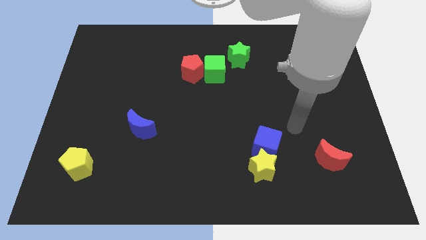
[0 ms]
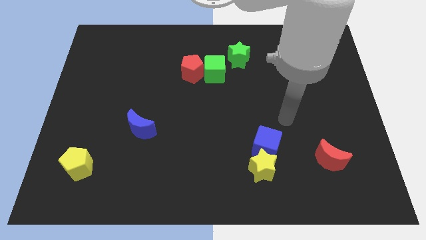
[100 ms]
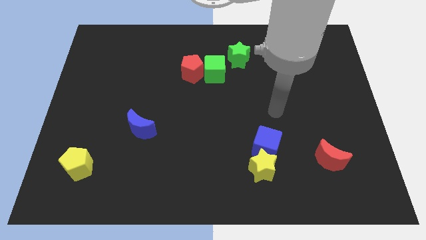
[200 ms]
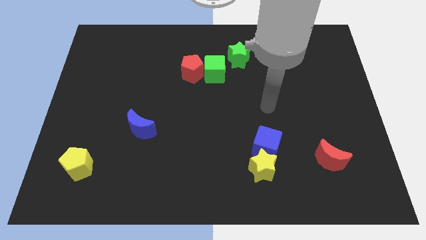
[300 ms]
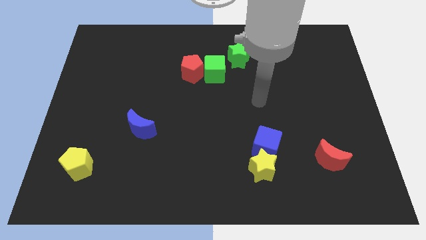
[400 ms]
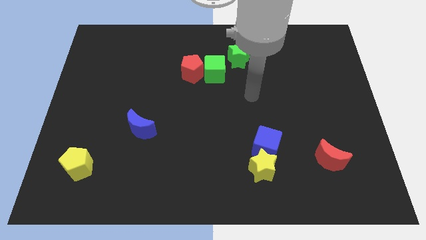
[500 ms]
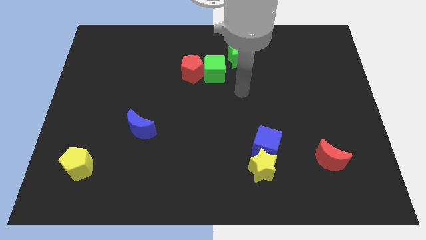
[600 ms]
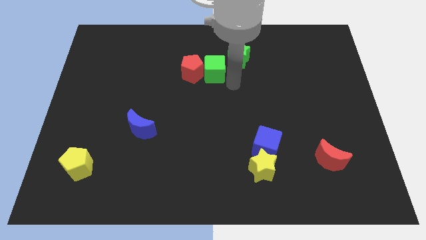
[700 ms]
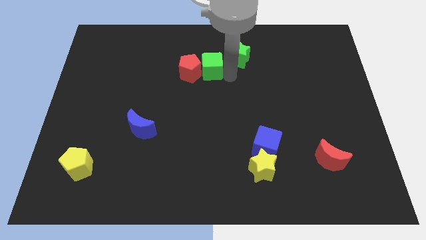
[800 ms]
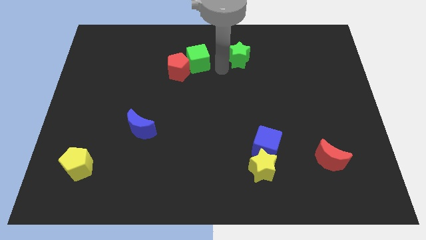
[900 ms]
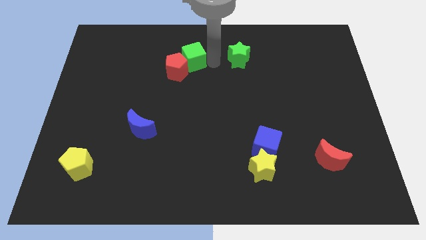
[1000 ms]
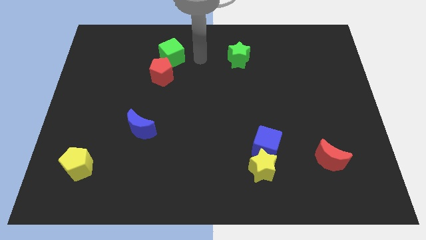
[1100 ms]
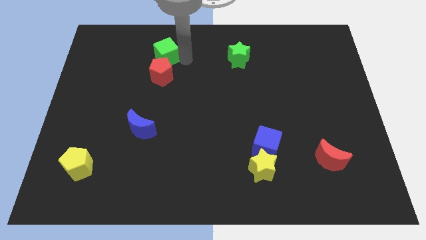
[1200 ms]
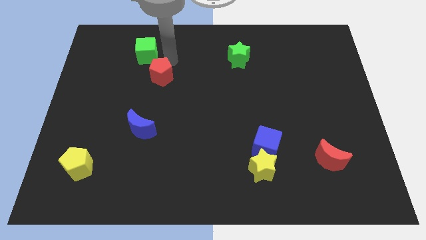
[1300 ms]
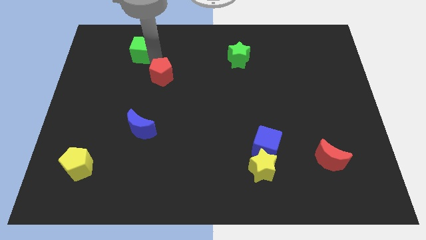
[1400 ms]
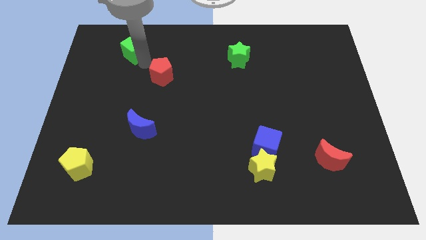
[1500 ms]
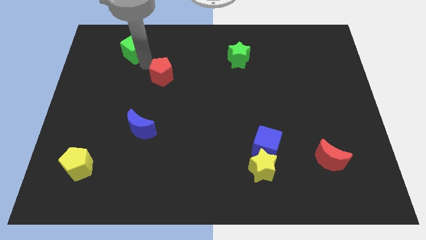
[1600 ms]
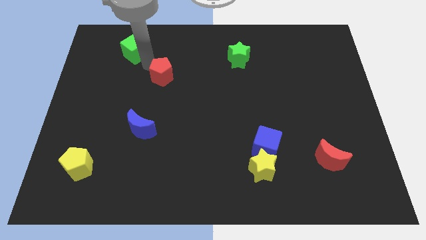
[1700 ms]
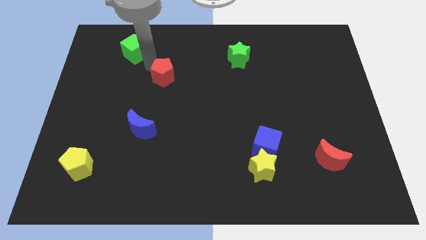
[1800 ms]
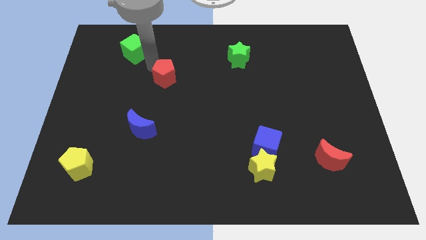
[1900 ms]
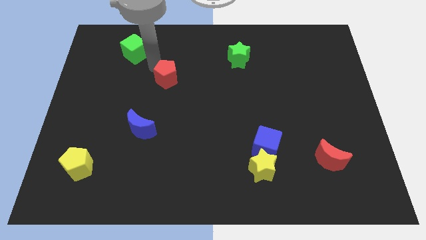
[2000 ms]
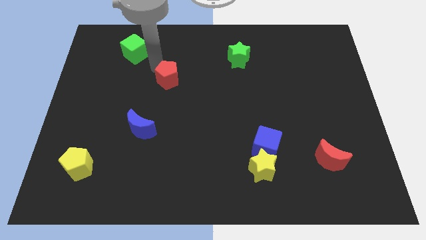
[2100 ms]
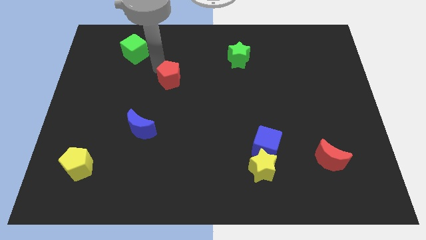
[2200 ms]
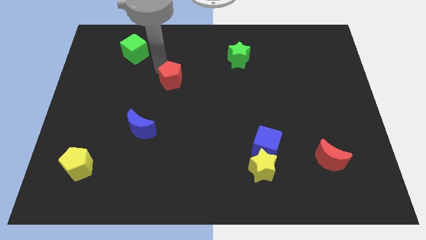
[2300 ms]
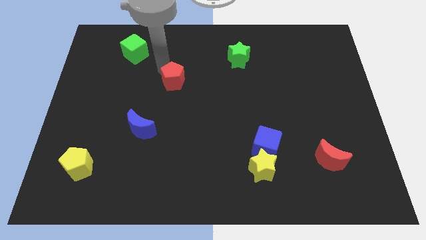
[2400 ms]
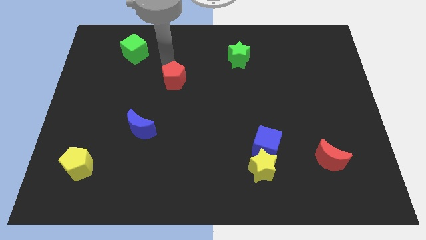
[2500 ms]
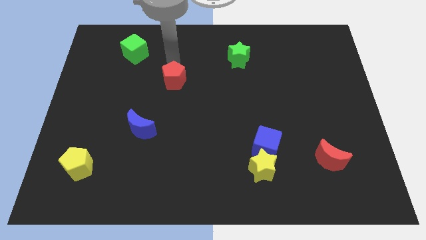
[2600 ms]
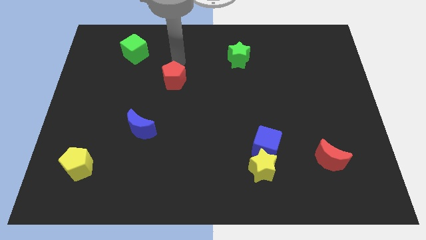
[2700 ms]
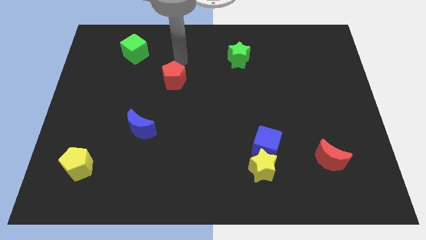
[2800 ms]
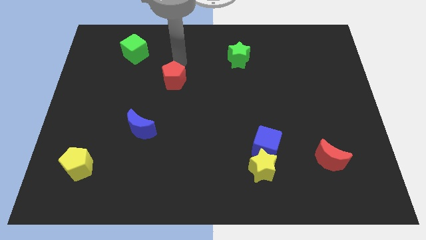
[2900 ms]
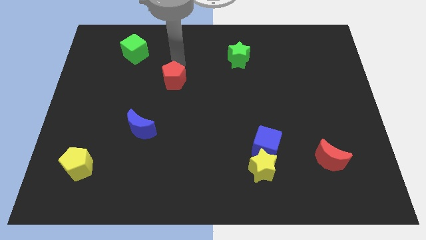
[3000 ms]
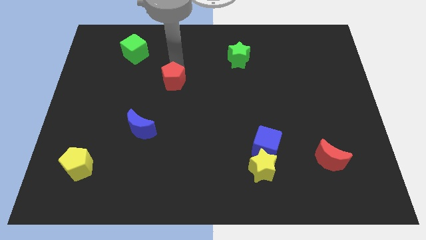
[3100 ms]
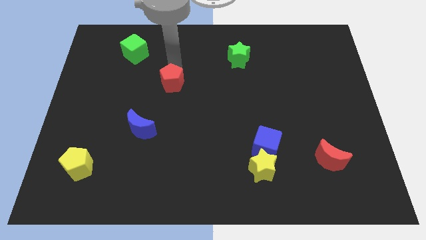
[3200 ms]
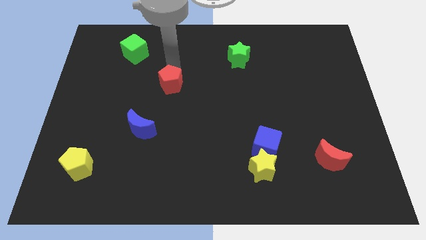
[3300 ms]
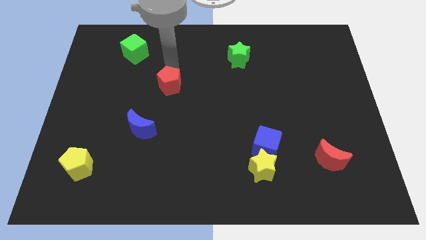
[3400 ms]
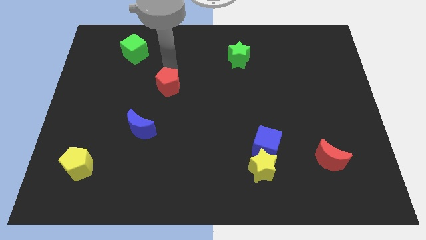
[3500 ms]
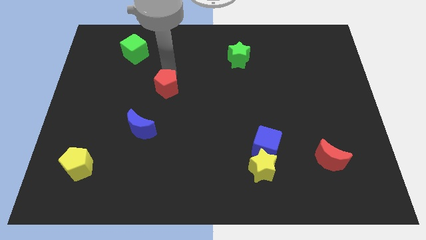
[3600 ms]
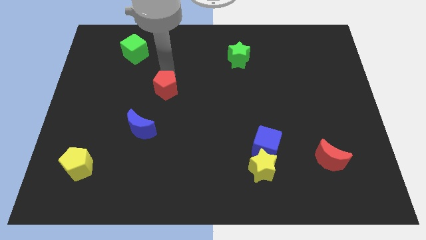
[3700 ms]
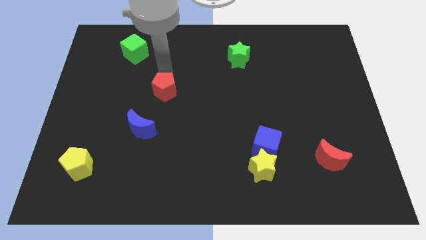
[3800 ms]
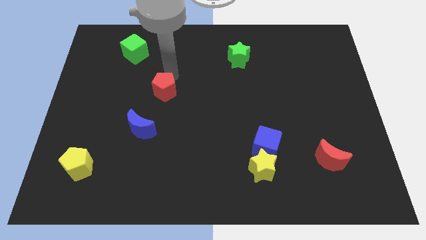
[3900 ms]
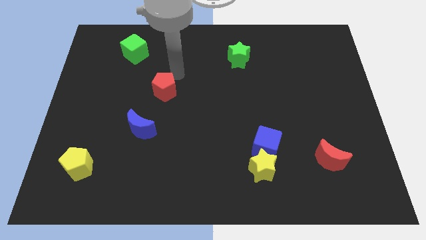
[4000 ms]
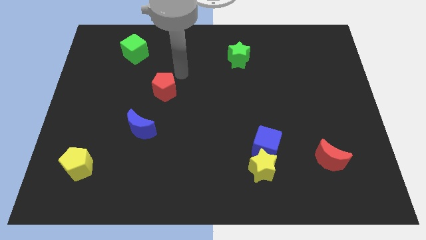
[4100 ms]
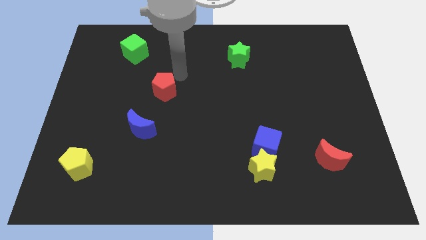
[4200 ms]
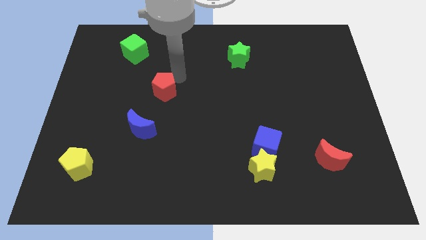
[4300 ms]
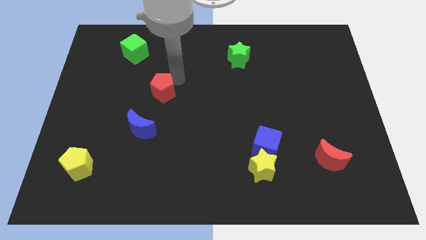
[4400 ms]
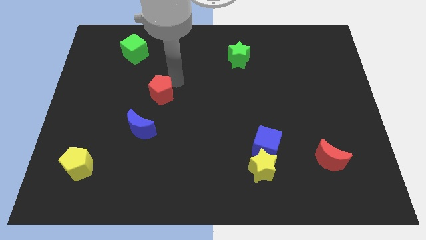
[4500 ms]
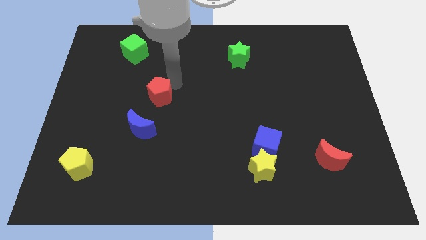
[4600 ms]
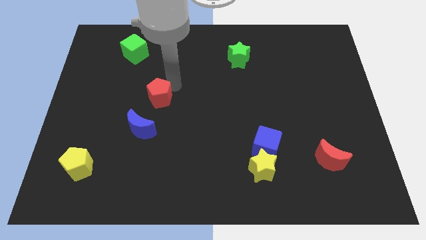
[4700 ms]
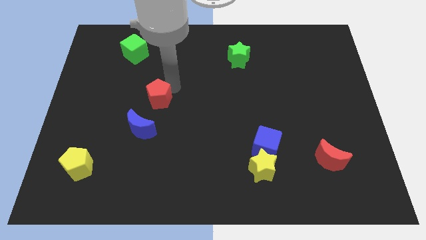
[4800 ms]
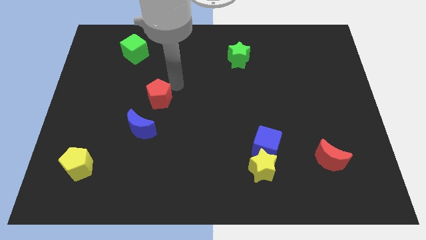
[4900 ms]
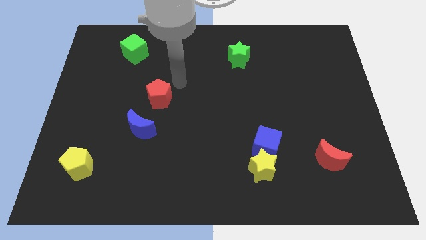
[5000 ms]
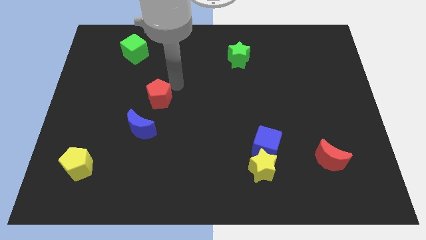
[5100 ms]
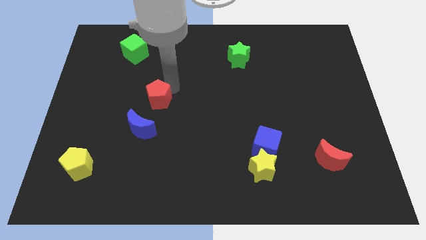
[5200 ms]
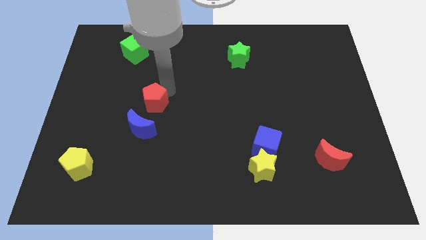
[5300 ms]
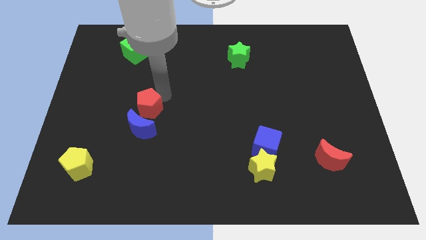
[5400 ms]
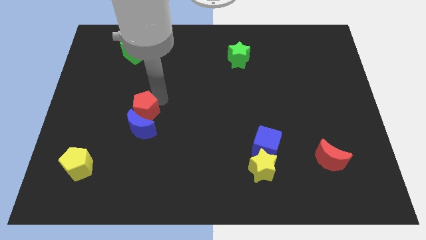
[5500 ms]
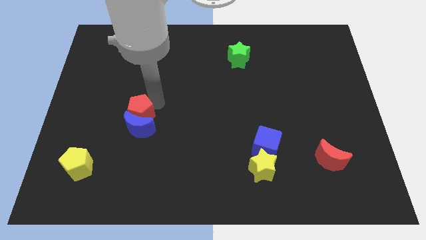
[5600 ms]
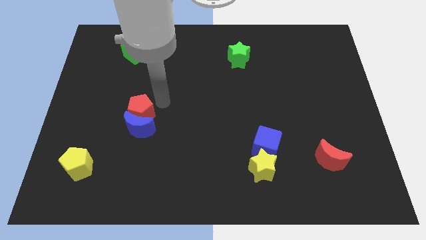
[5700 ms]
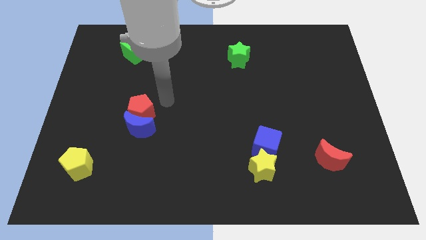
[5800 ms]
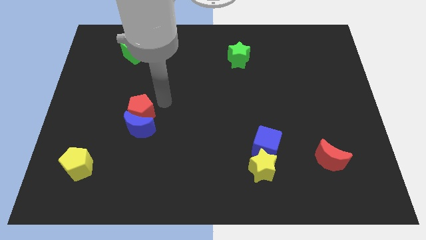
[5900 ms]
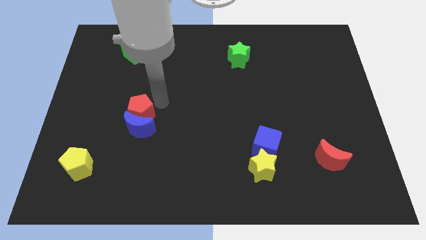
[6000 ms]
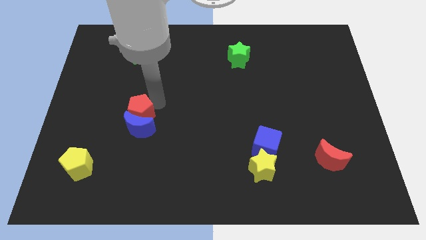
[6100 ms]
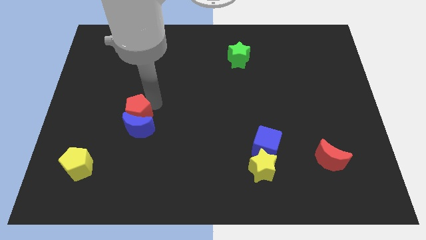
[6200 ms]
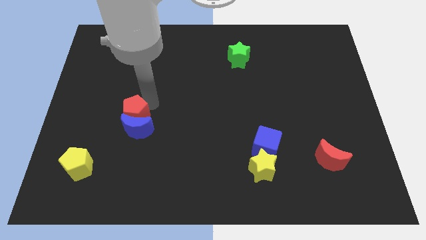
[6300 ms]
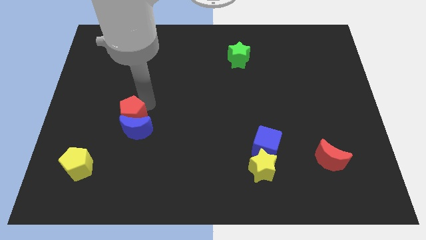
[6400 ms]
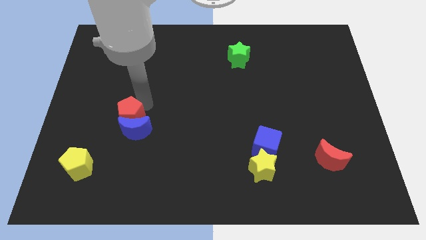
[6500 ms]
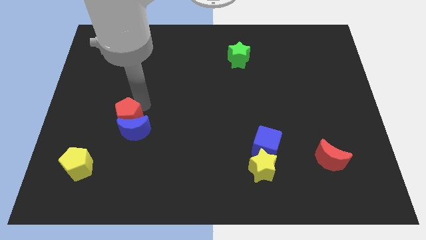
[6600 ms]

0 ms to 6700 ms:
slide the red pentagon diagonally down and left

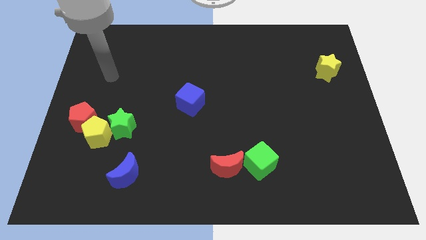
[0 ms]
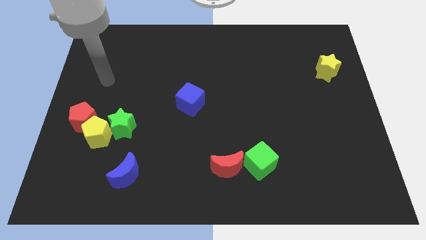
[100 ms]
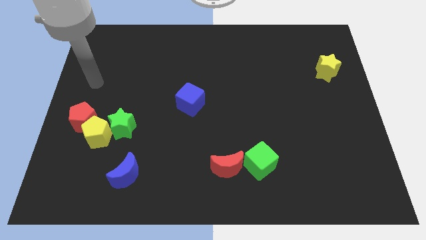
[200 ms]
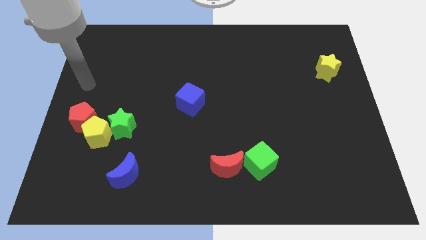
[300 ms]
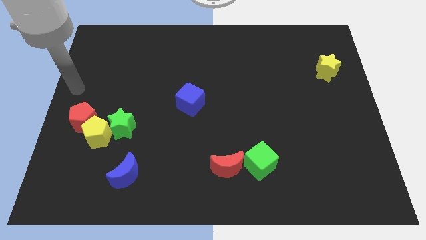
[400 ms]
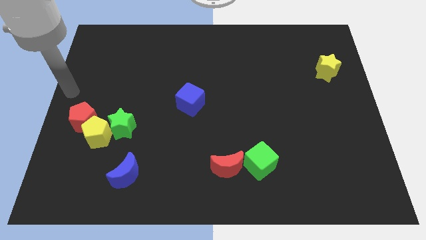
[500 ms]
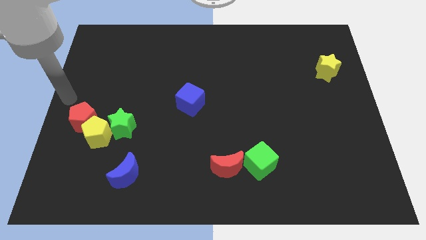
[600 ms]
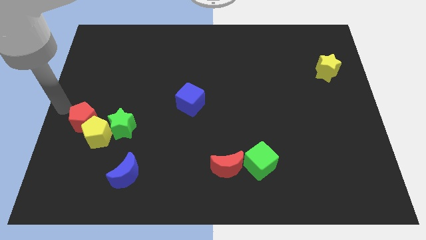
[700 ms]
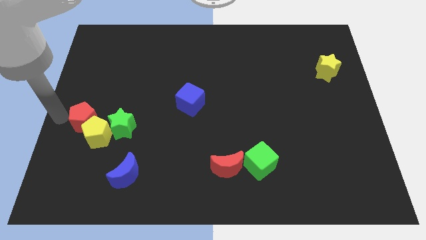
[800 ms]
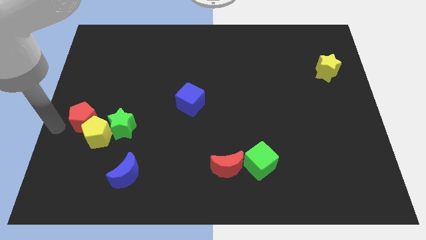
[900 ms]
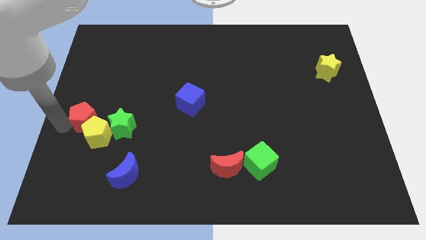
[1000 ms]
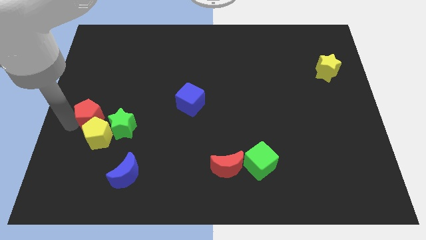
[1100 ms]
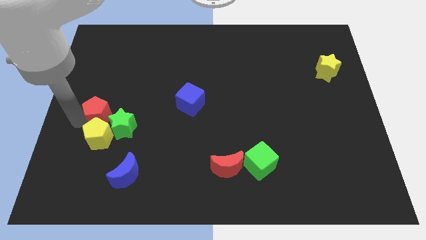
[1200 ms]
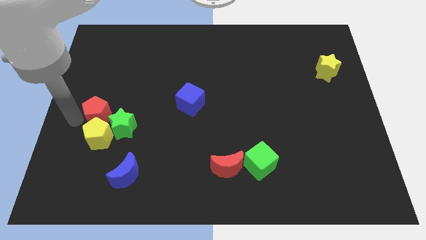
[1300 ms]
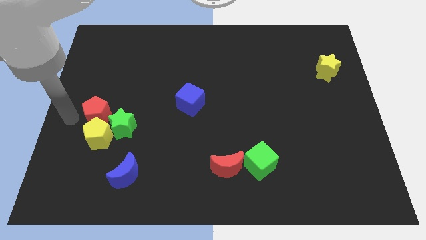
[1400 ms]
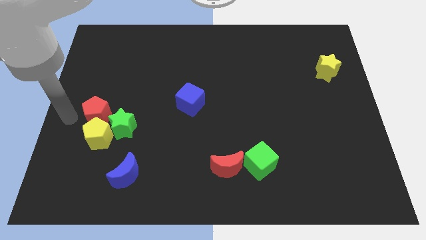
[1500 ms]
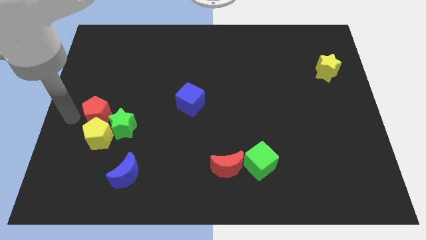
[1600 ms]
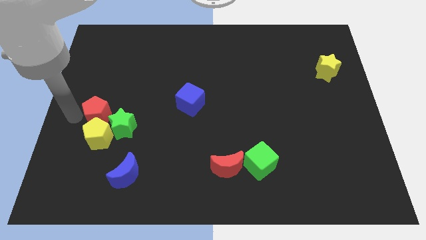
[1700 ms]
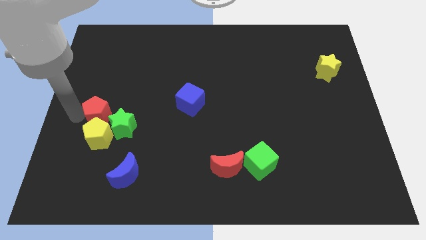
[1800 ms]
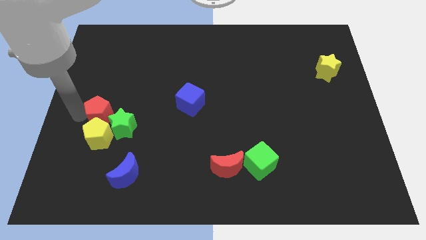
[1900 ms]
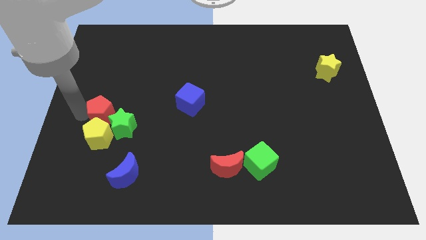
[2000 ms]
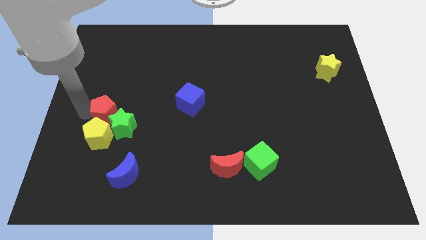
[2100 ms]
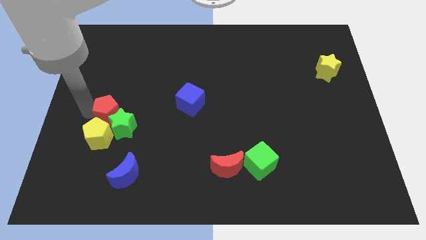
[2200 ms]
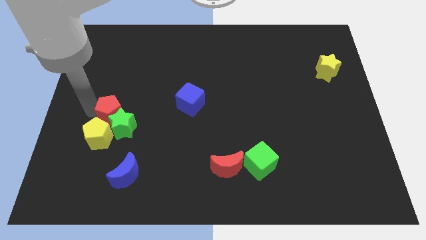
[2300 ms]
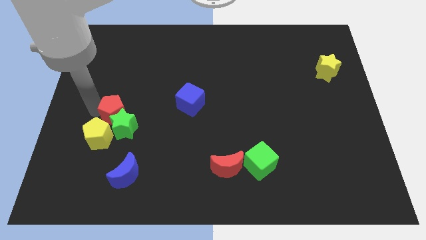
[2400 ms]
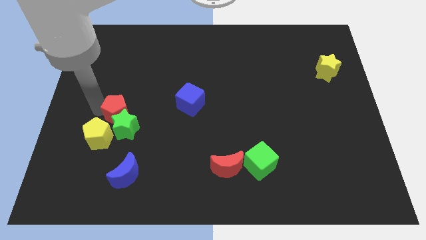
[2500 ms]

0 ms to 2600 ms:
slightly move the red pentagon to the right
